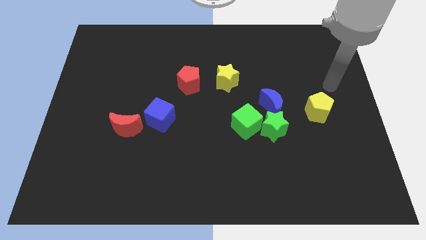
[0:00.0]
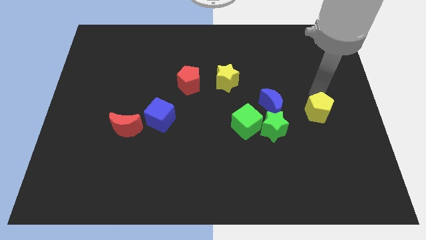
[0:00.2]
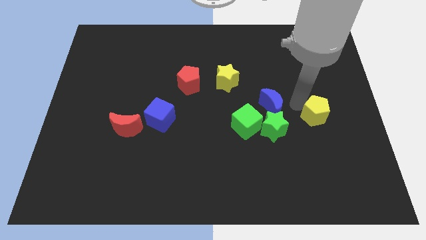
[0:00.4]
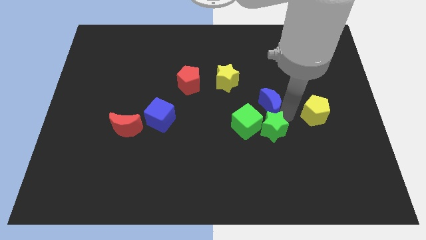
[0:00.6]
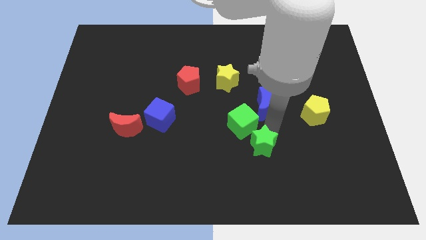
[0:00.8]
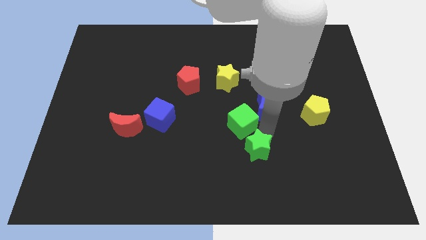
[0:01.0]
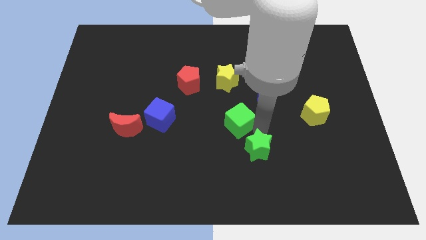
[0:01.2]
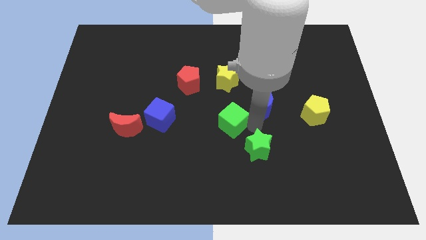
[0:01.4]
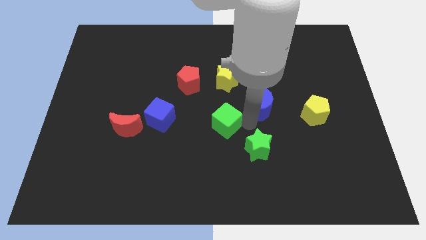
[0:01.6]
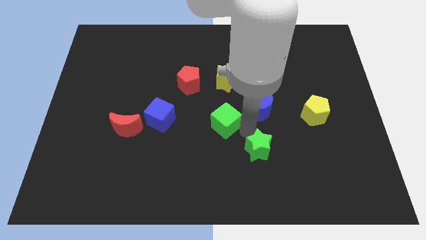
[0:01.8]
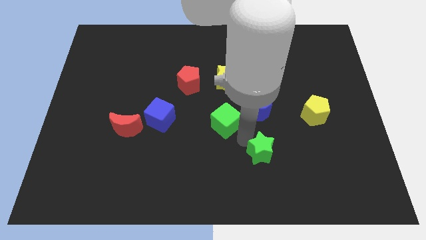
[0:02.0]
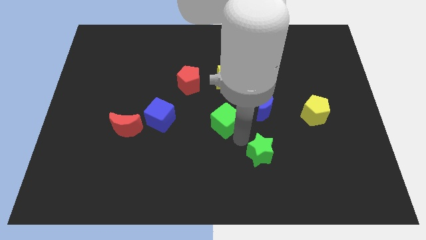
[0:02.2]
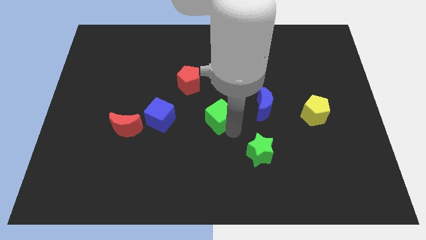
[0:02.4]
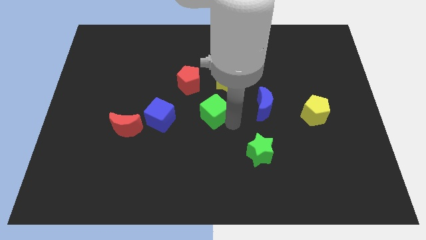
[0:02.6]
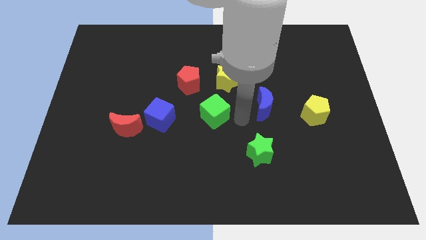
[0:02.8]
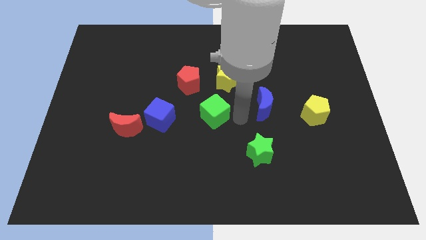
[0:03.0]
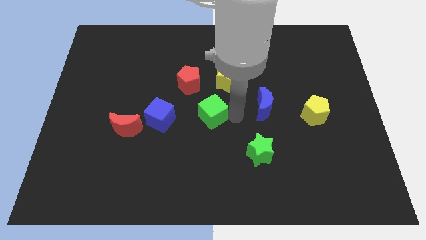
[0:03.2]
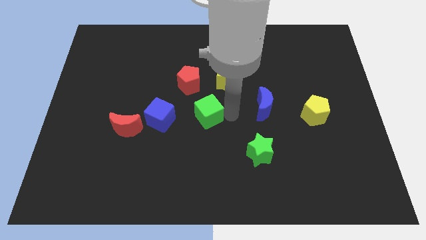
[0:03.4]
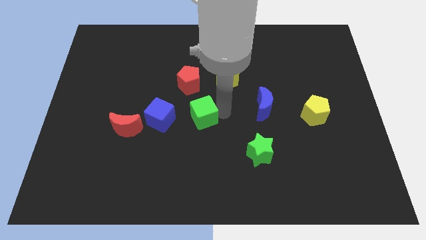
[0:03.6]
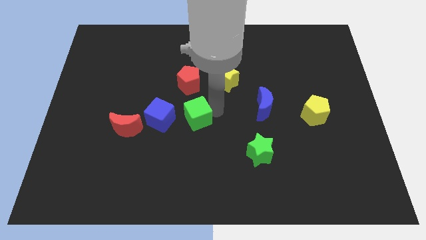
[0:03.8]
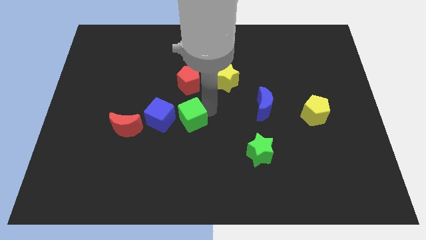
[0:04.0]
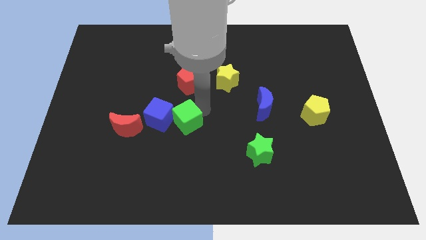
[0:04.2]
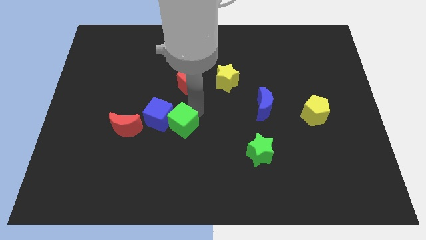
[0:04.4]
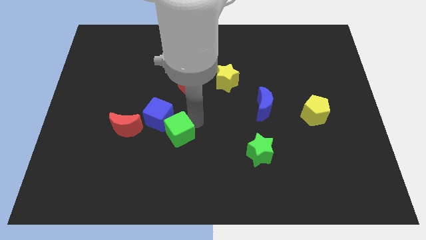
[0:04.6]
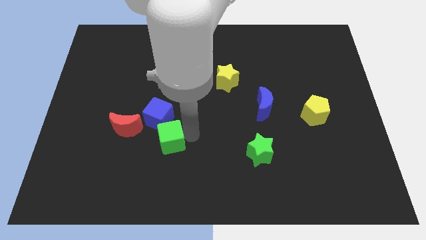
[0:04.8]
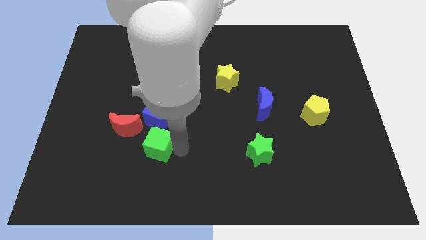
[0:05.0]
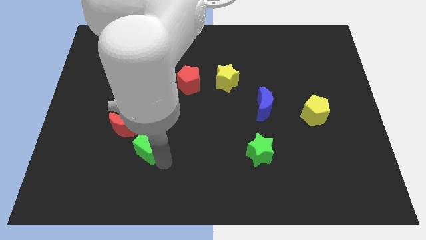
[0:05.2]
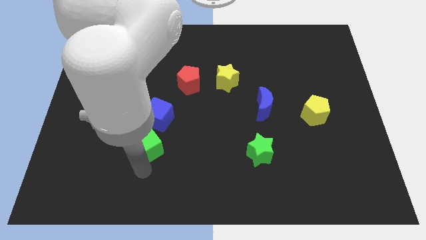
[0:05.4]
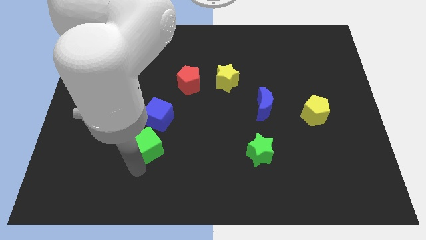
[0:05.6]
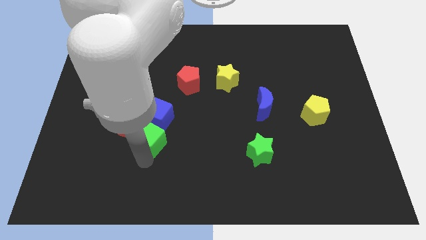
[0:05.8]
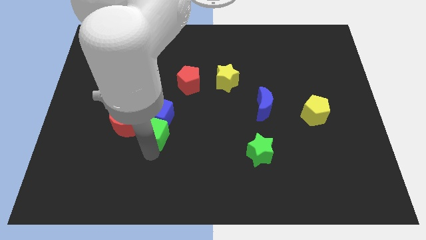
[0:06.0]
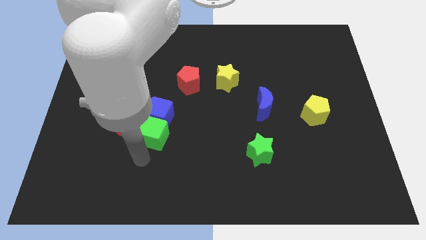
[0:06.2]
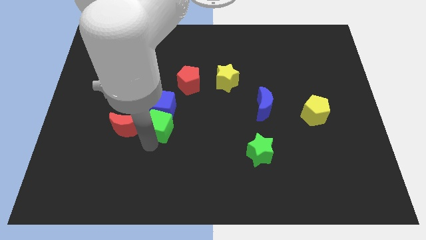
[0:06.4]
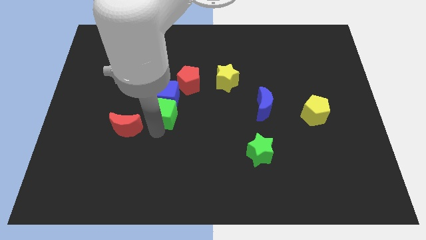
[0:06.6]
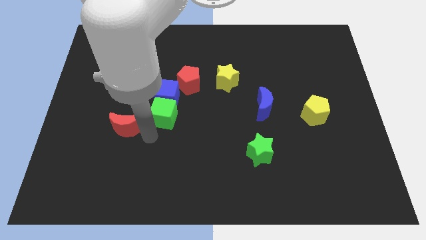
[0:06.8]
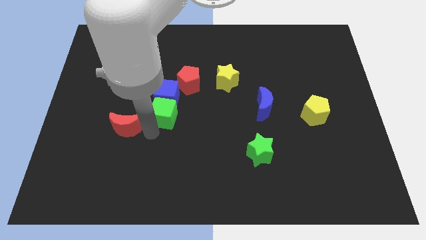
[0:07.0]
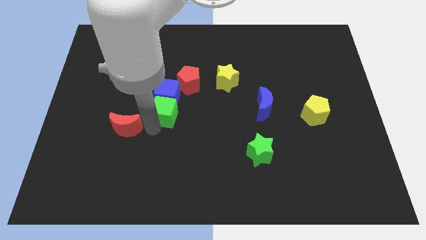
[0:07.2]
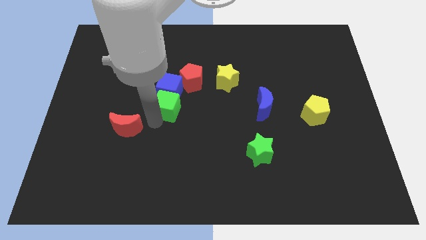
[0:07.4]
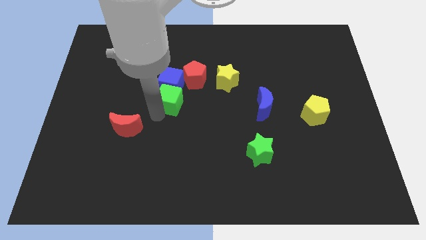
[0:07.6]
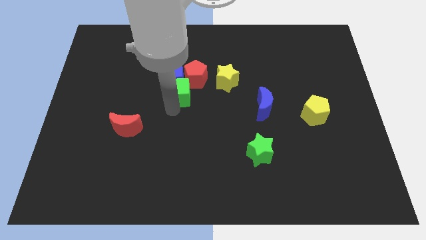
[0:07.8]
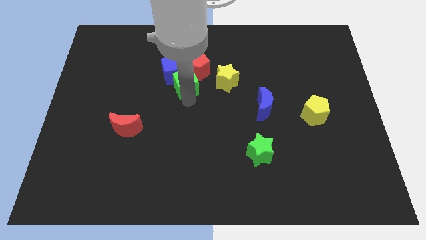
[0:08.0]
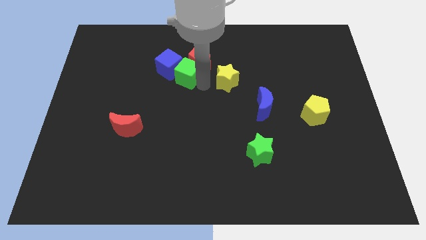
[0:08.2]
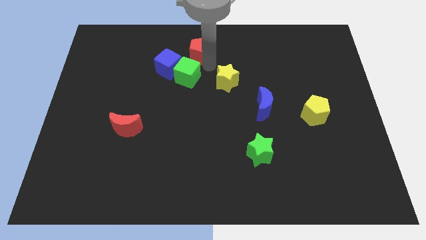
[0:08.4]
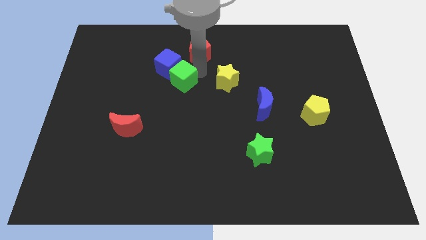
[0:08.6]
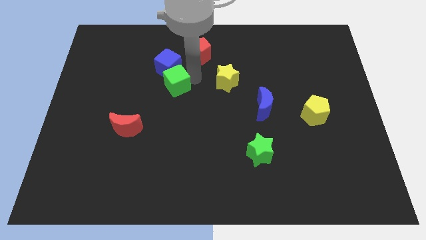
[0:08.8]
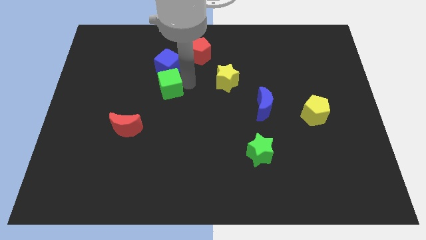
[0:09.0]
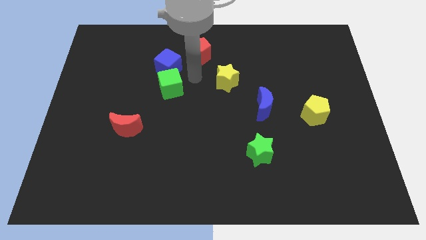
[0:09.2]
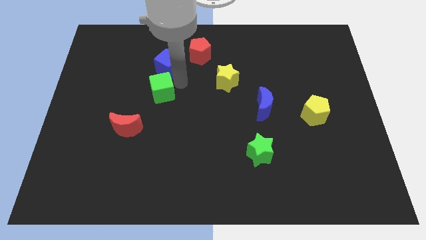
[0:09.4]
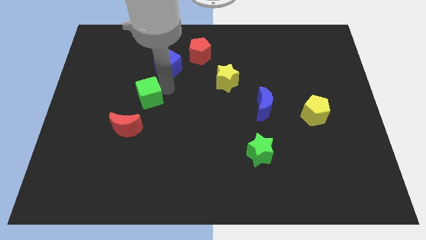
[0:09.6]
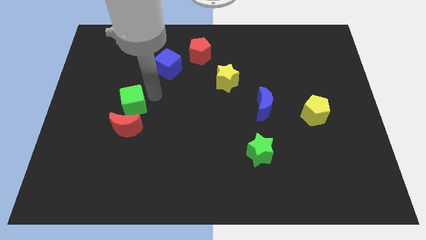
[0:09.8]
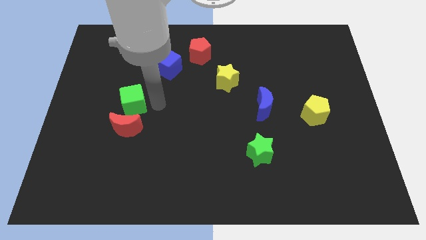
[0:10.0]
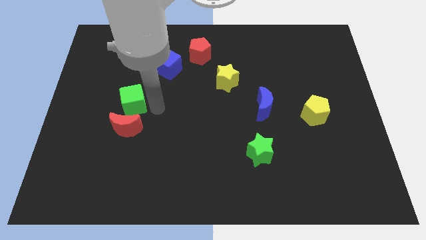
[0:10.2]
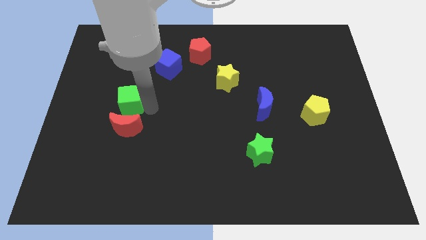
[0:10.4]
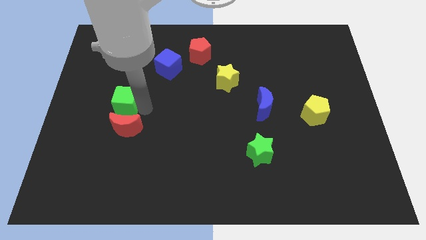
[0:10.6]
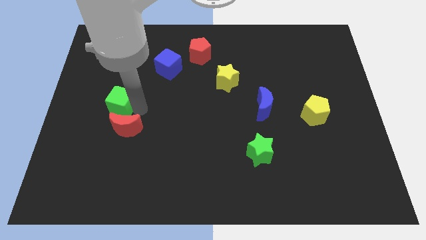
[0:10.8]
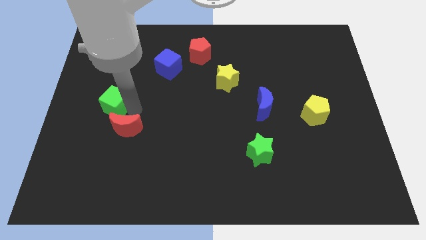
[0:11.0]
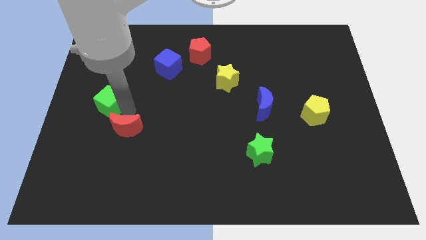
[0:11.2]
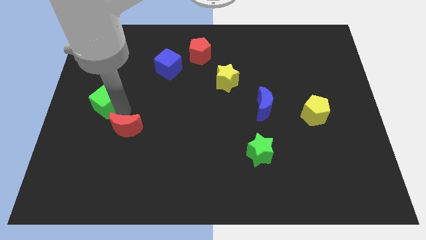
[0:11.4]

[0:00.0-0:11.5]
slide the green cube to the left side
